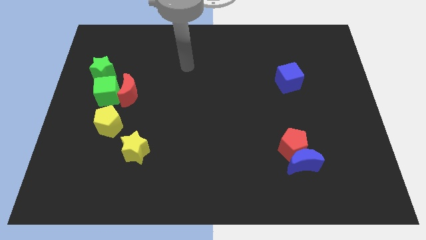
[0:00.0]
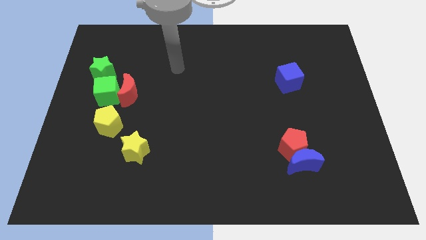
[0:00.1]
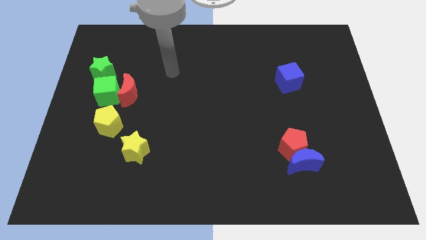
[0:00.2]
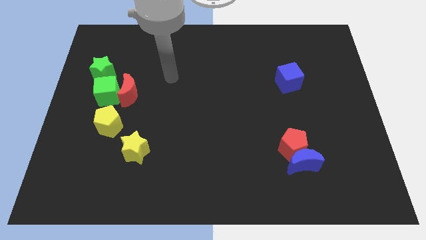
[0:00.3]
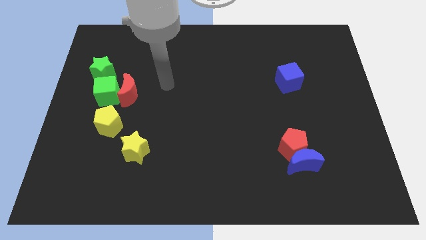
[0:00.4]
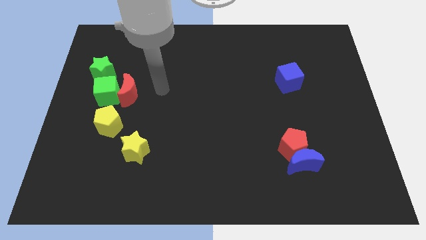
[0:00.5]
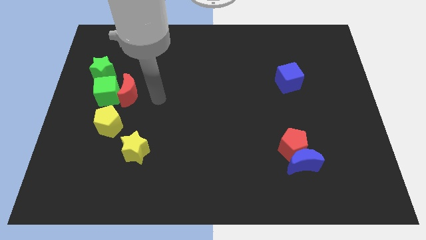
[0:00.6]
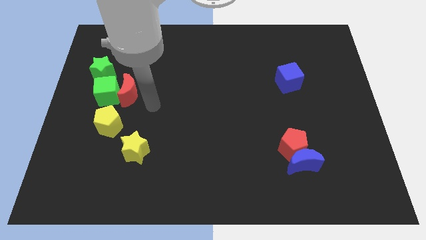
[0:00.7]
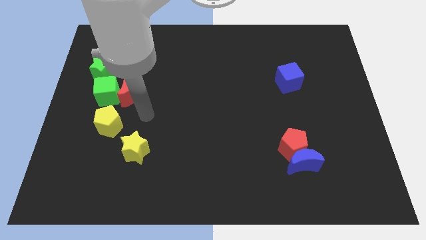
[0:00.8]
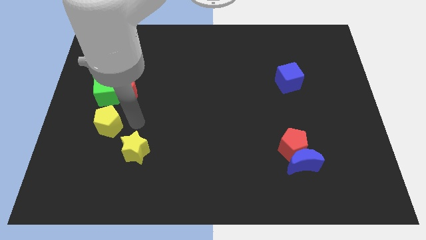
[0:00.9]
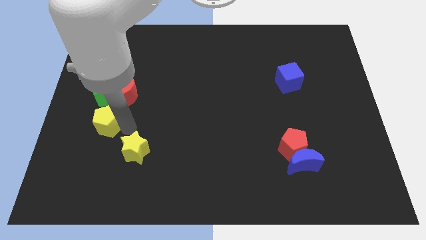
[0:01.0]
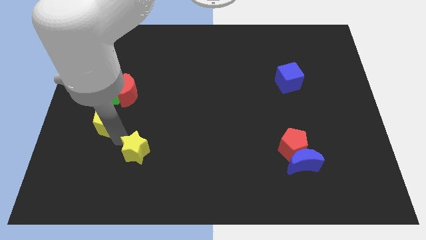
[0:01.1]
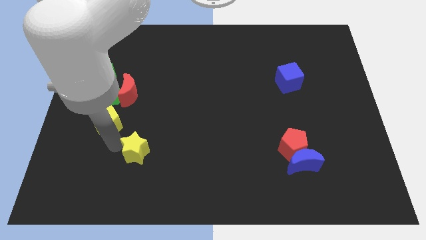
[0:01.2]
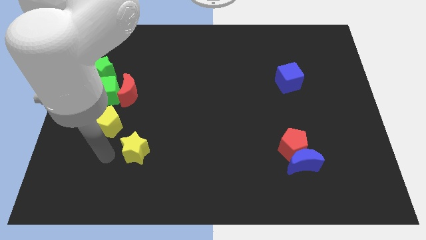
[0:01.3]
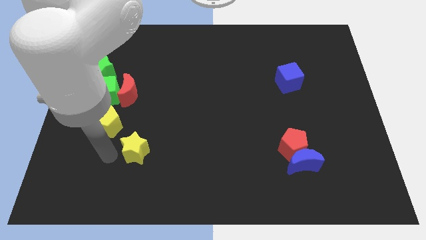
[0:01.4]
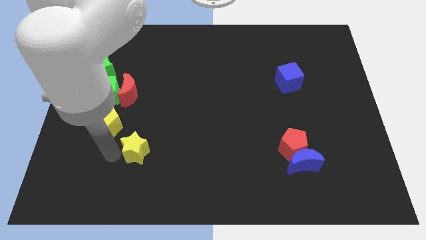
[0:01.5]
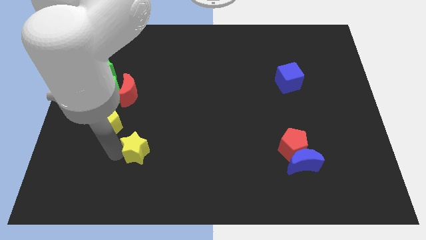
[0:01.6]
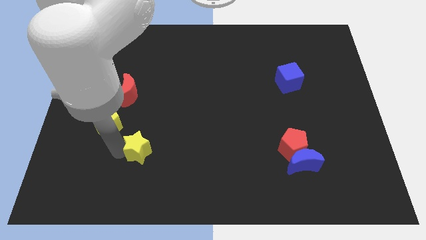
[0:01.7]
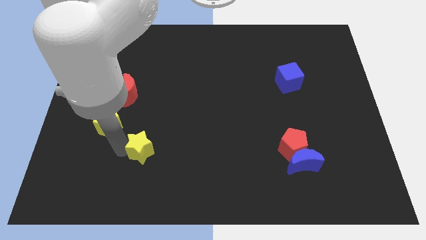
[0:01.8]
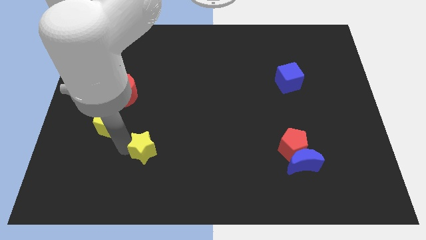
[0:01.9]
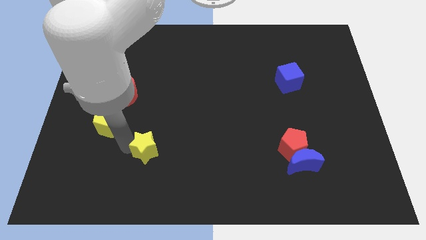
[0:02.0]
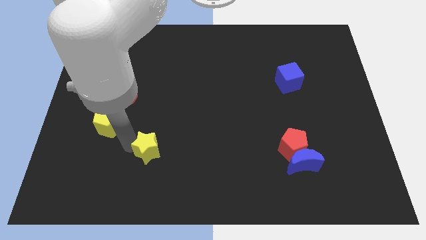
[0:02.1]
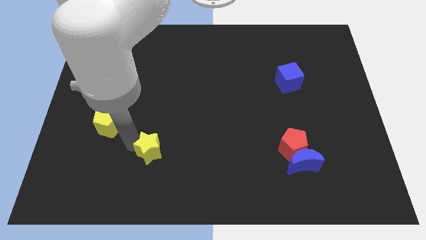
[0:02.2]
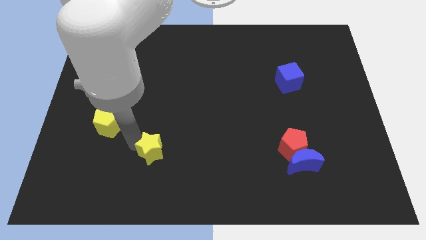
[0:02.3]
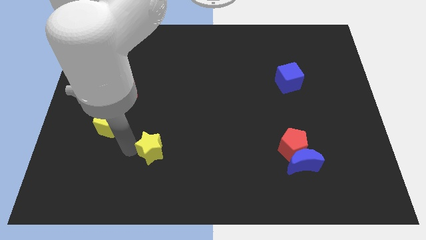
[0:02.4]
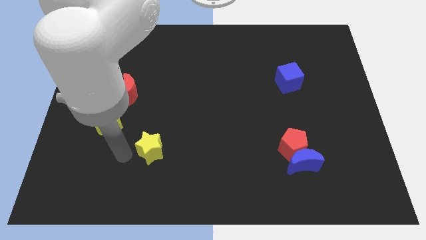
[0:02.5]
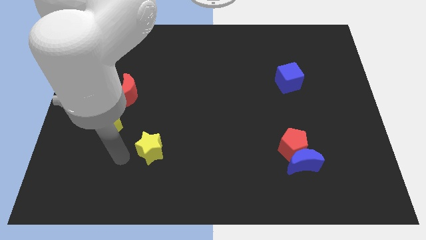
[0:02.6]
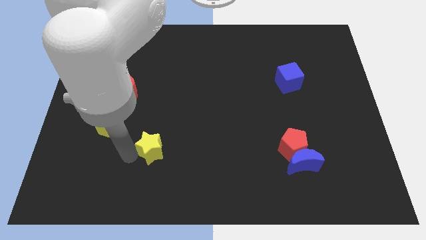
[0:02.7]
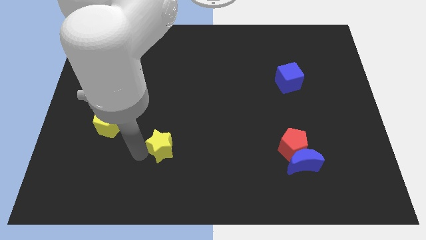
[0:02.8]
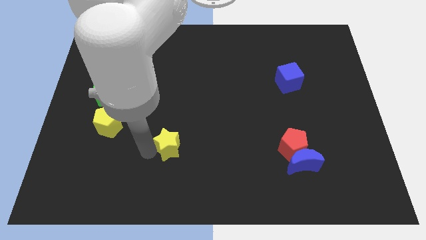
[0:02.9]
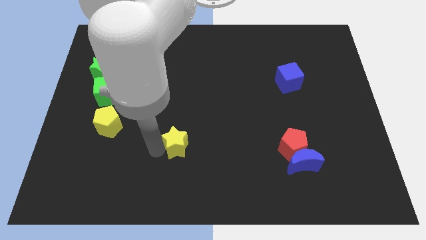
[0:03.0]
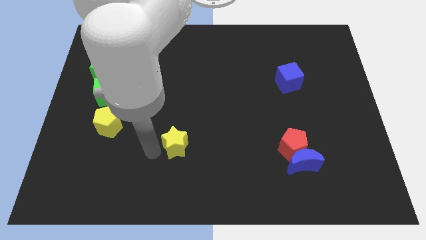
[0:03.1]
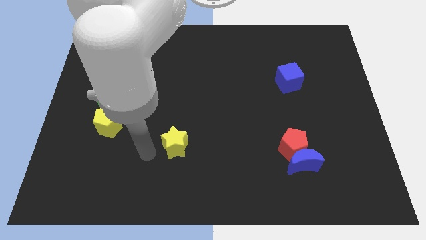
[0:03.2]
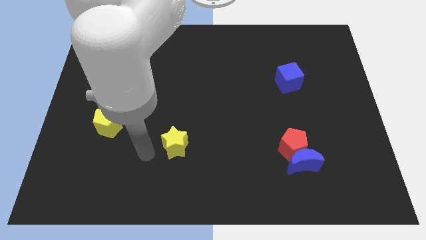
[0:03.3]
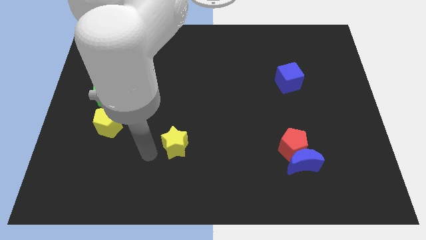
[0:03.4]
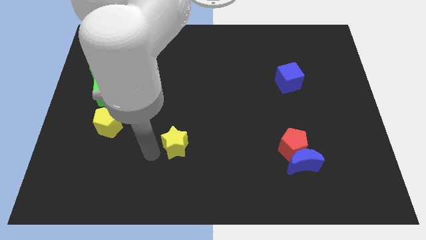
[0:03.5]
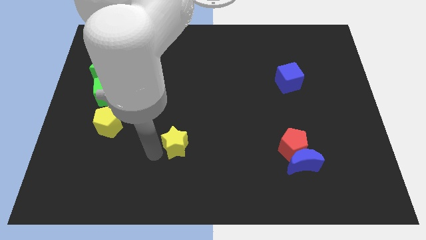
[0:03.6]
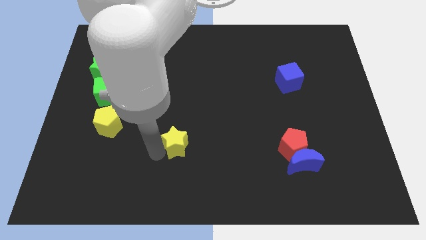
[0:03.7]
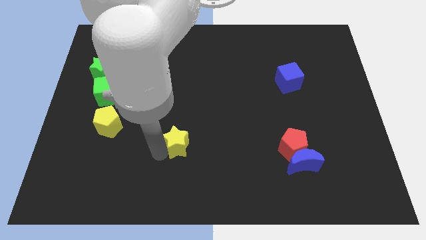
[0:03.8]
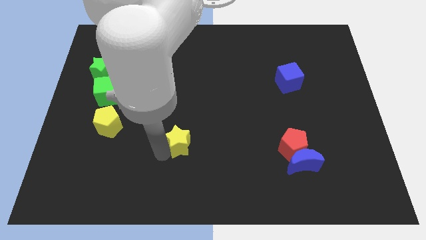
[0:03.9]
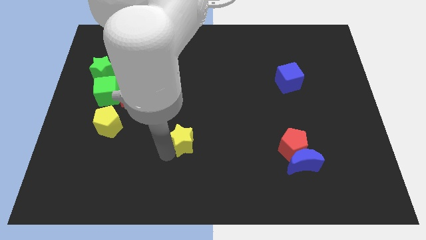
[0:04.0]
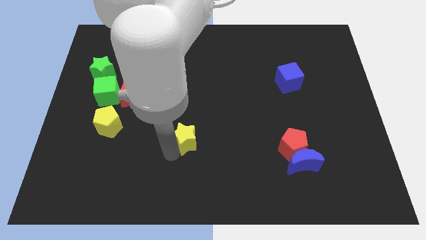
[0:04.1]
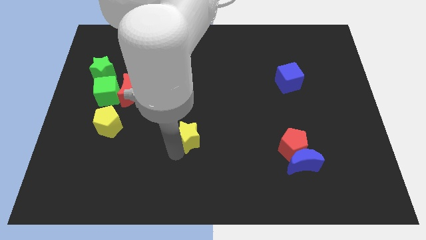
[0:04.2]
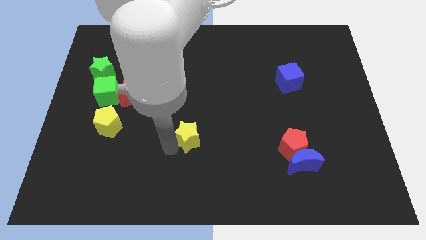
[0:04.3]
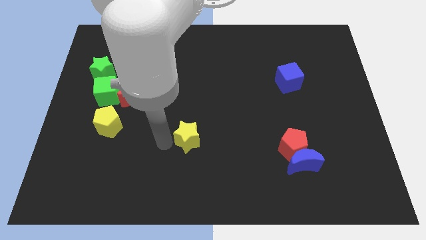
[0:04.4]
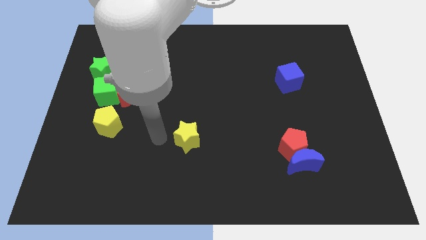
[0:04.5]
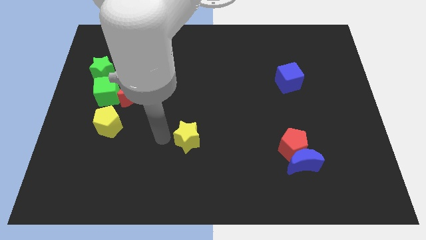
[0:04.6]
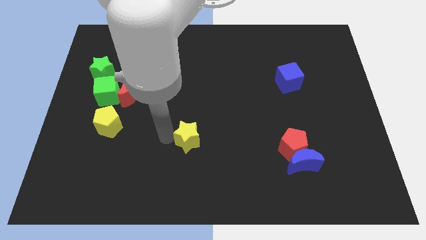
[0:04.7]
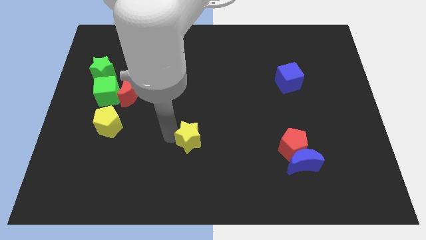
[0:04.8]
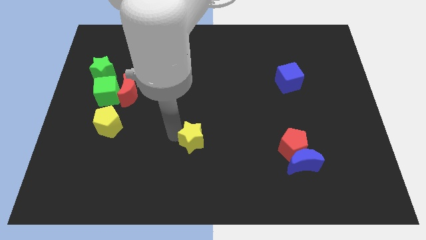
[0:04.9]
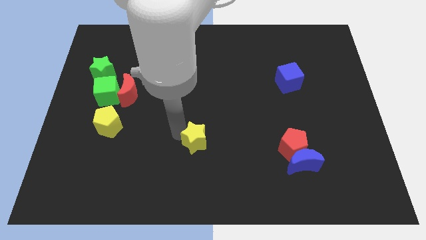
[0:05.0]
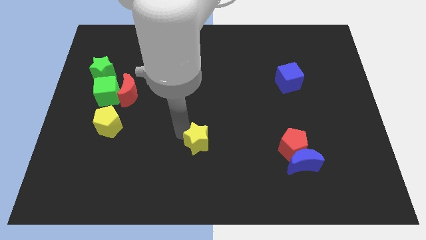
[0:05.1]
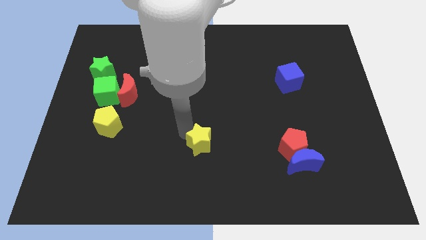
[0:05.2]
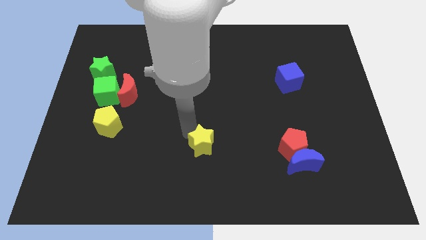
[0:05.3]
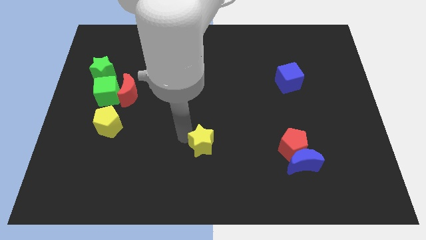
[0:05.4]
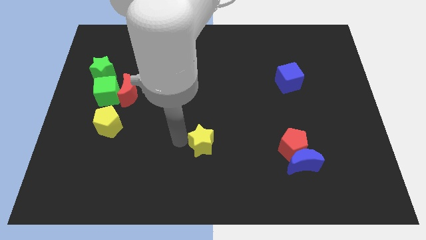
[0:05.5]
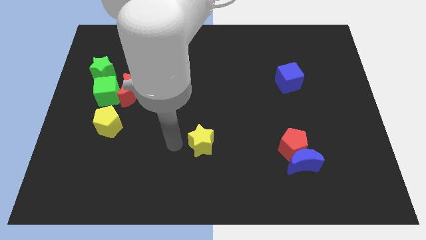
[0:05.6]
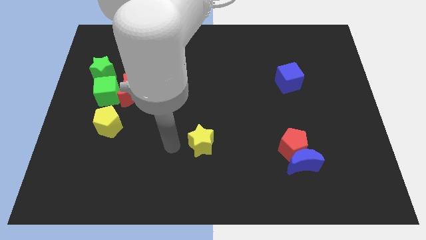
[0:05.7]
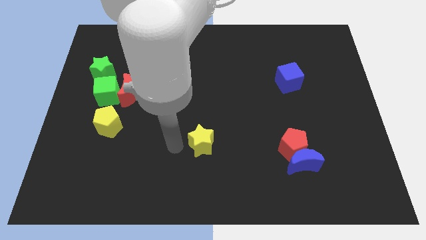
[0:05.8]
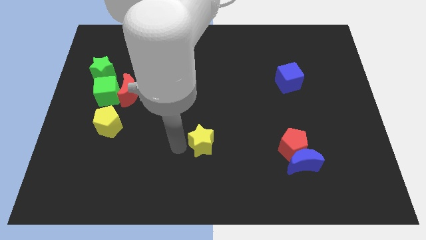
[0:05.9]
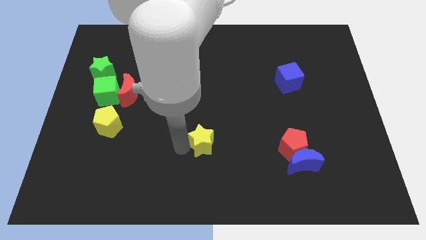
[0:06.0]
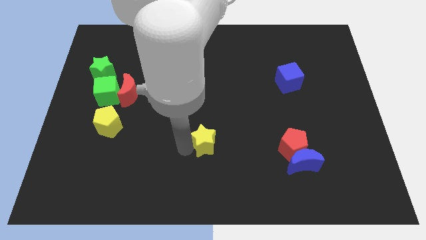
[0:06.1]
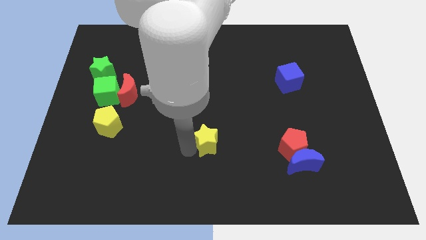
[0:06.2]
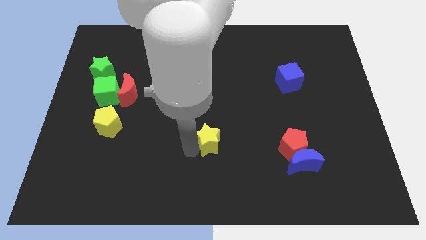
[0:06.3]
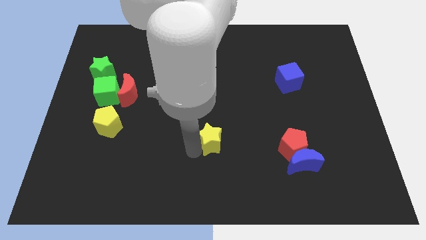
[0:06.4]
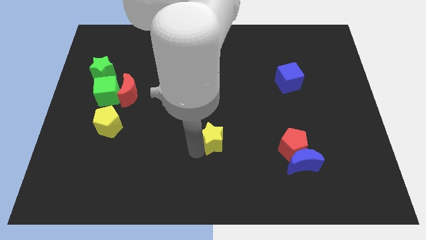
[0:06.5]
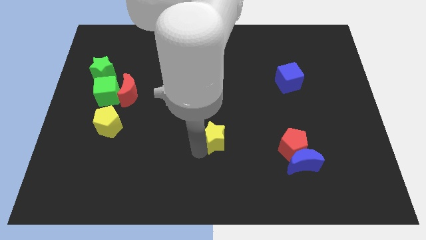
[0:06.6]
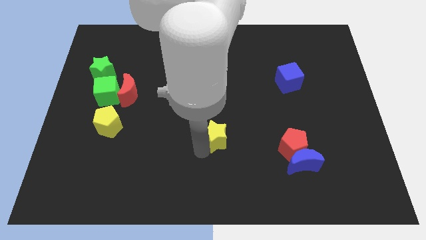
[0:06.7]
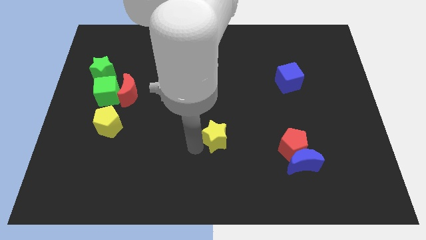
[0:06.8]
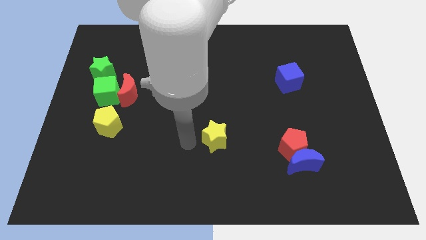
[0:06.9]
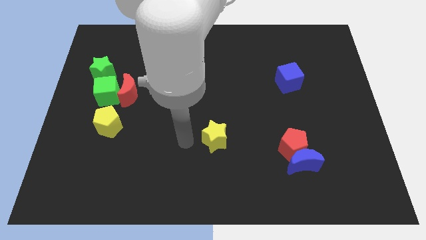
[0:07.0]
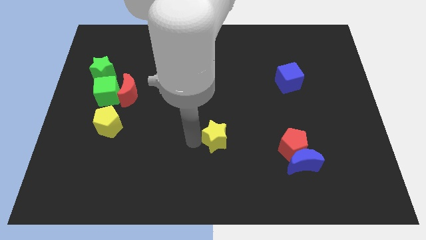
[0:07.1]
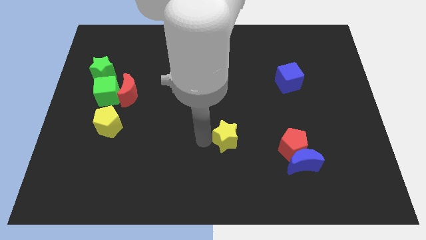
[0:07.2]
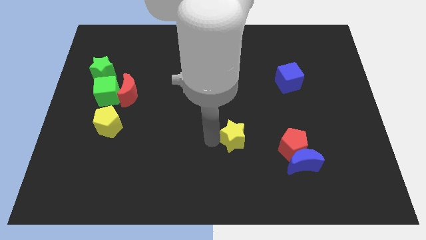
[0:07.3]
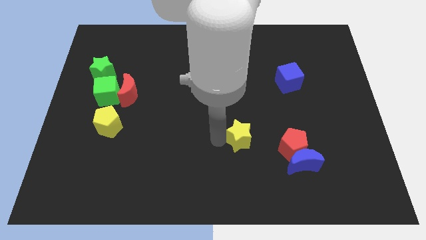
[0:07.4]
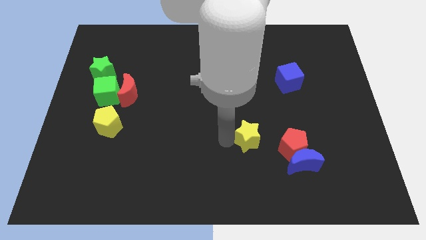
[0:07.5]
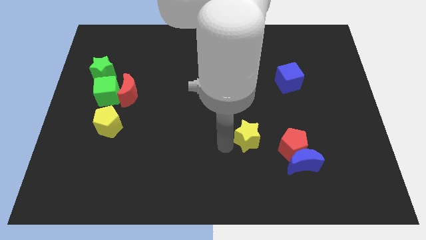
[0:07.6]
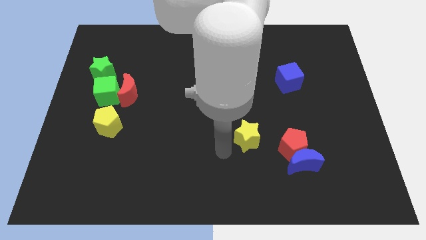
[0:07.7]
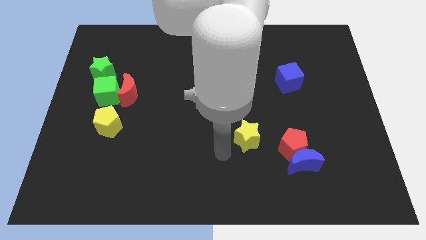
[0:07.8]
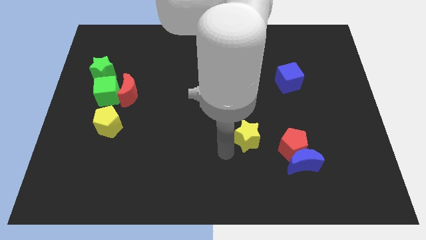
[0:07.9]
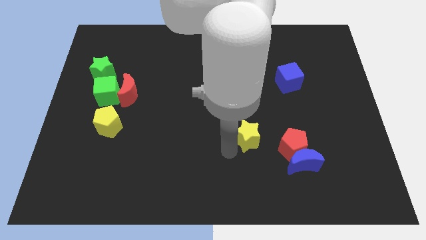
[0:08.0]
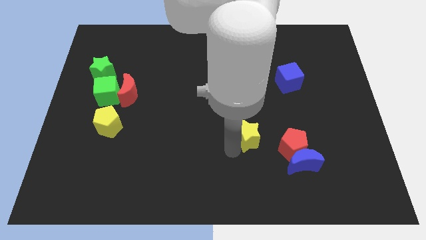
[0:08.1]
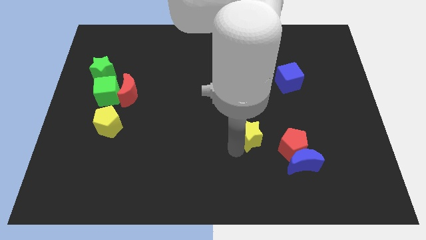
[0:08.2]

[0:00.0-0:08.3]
put the yellow star diagonally up and to the left of the red pentagon
